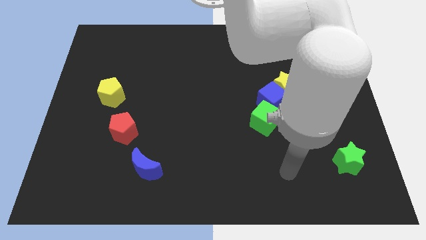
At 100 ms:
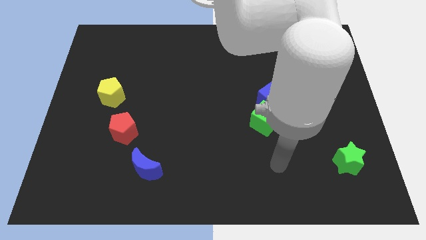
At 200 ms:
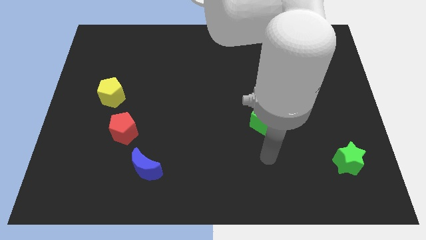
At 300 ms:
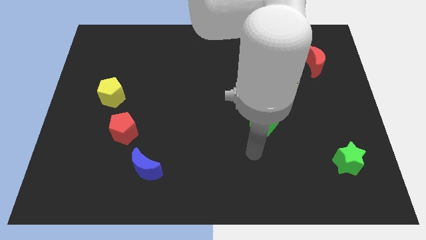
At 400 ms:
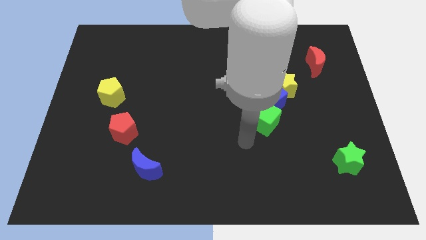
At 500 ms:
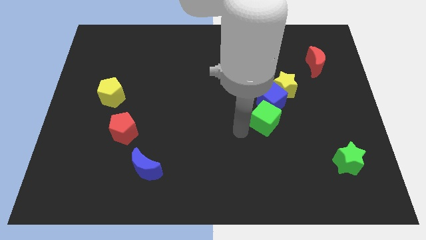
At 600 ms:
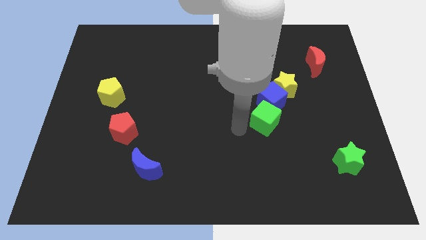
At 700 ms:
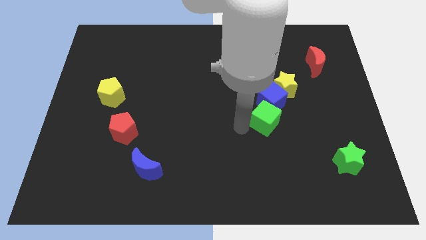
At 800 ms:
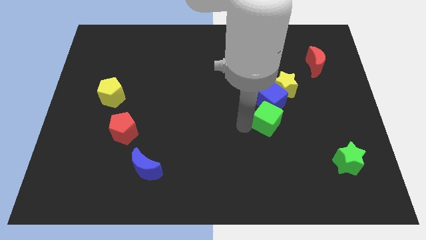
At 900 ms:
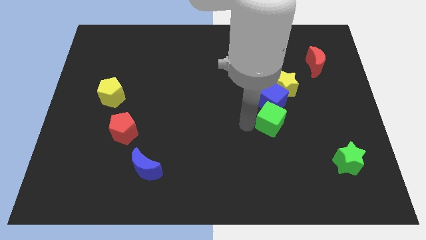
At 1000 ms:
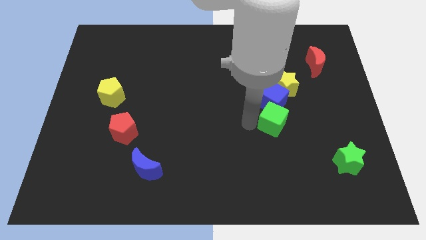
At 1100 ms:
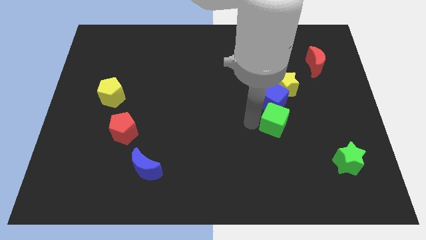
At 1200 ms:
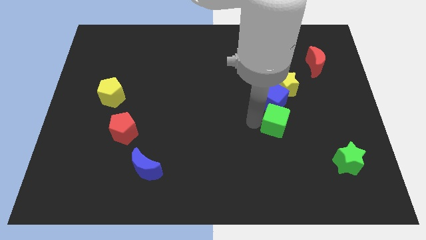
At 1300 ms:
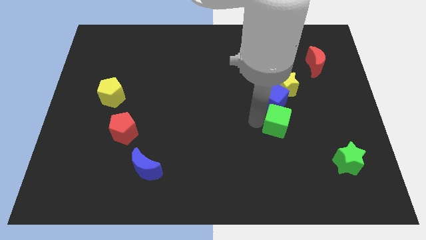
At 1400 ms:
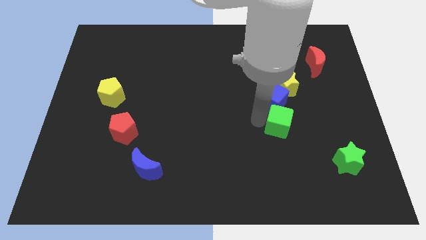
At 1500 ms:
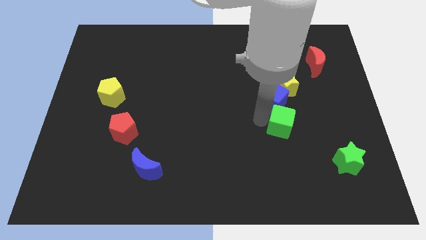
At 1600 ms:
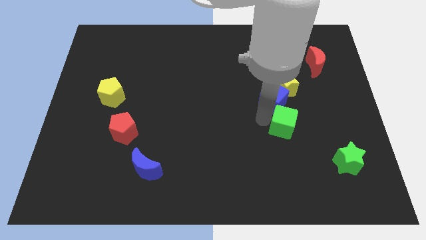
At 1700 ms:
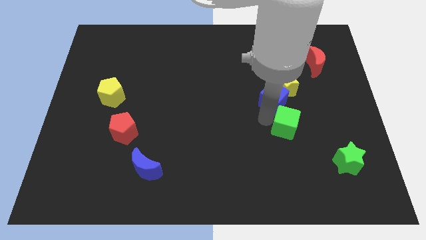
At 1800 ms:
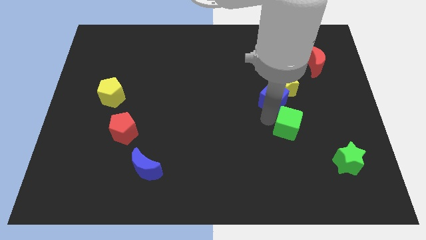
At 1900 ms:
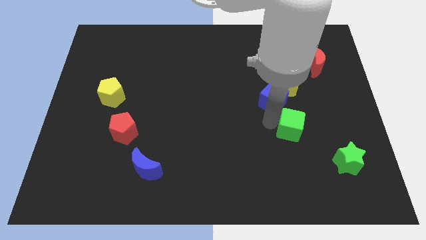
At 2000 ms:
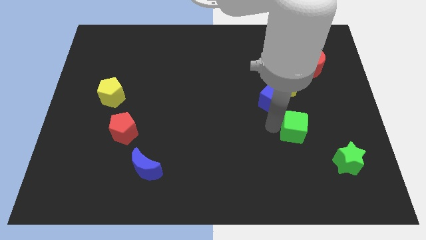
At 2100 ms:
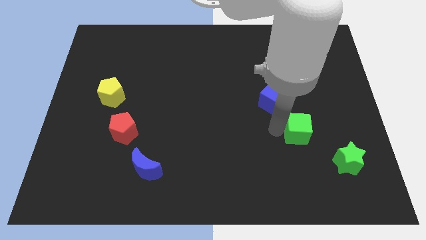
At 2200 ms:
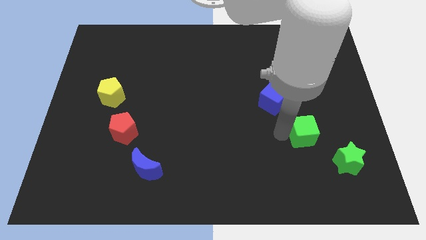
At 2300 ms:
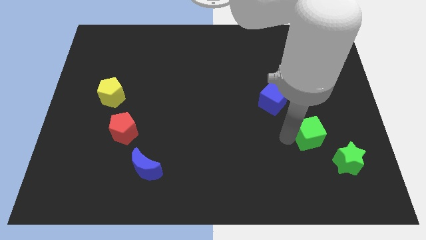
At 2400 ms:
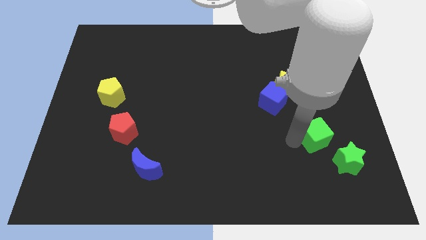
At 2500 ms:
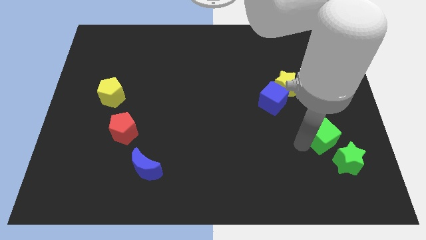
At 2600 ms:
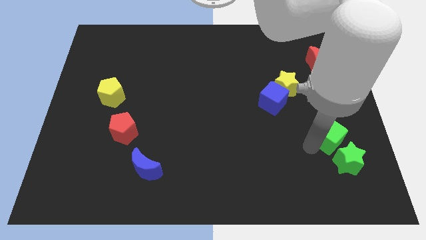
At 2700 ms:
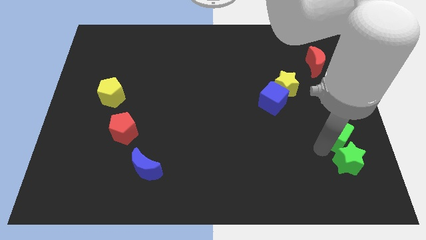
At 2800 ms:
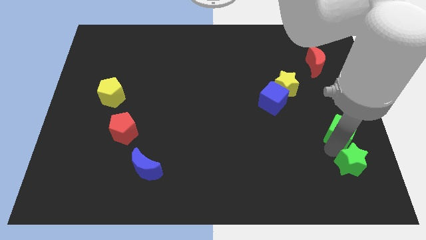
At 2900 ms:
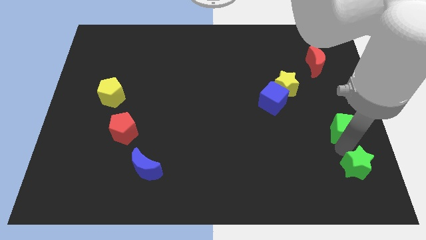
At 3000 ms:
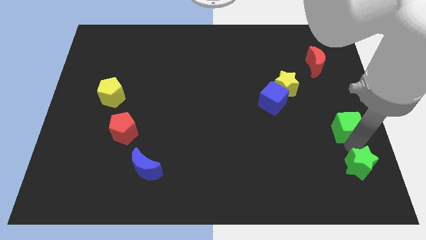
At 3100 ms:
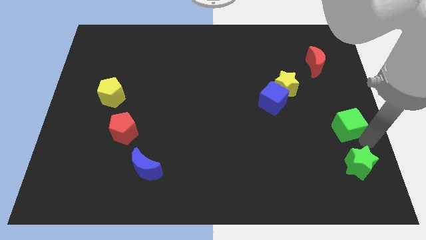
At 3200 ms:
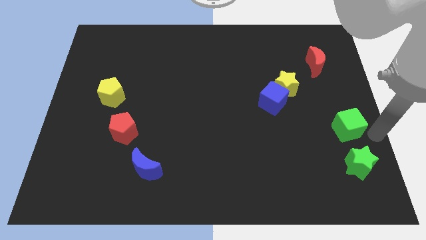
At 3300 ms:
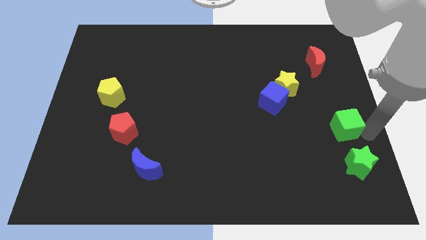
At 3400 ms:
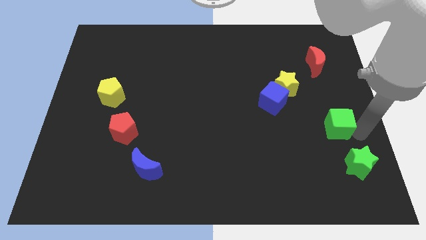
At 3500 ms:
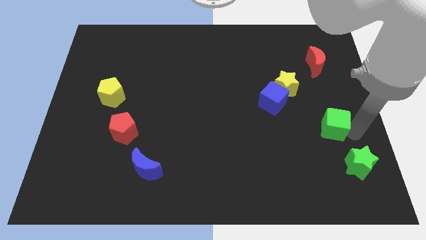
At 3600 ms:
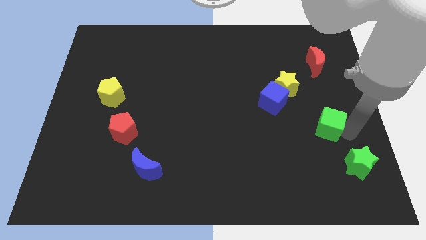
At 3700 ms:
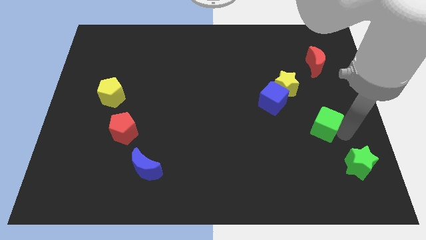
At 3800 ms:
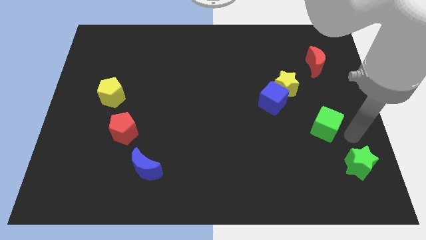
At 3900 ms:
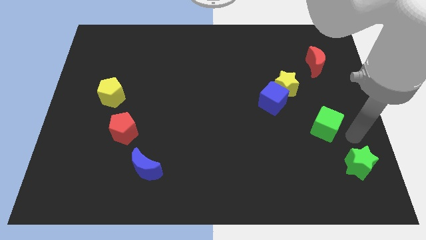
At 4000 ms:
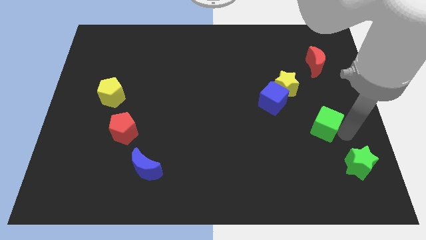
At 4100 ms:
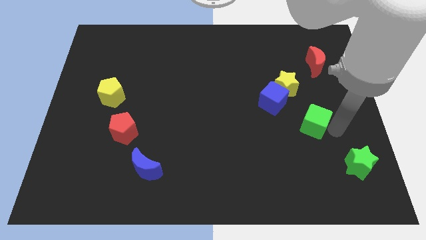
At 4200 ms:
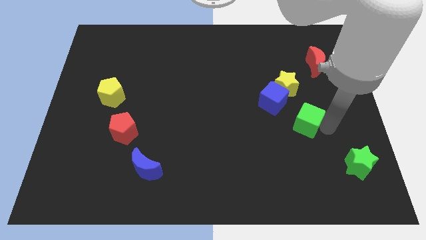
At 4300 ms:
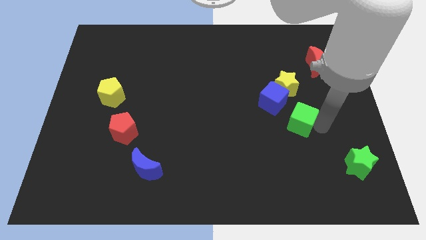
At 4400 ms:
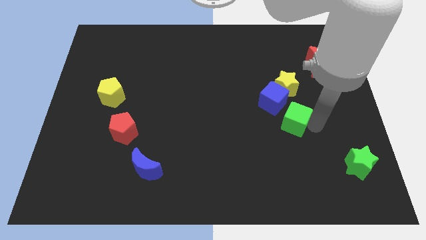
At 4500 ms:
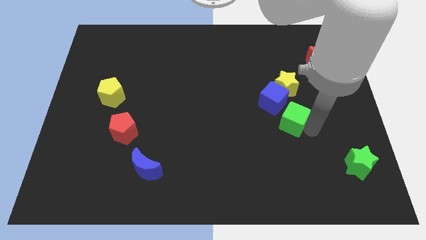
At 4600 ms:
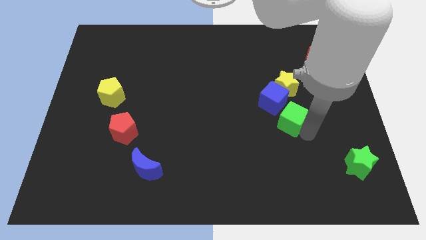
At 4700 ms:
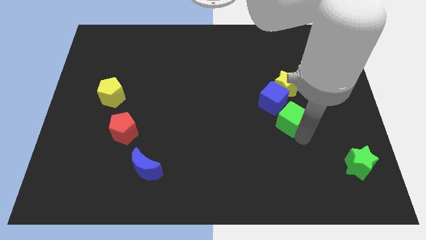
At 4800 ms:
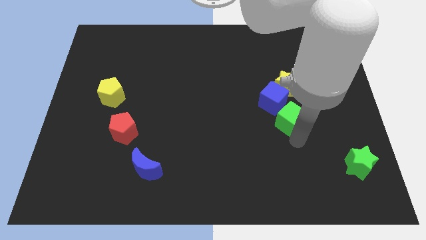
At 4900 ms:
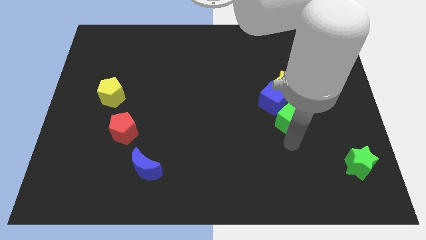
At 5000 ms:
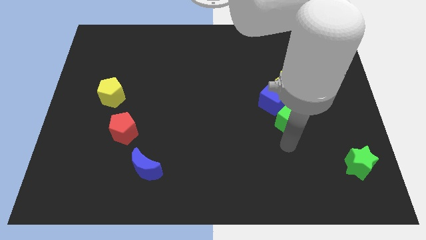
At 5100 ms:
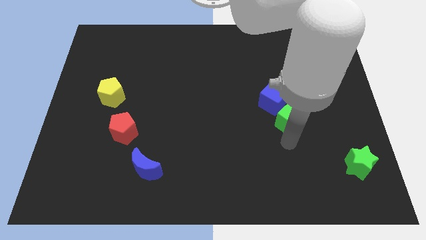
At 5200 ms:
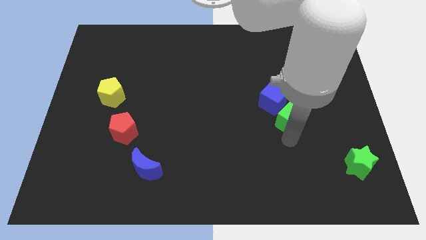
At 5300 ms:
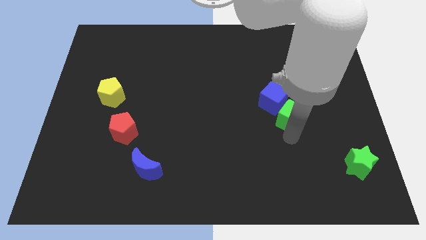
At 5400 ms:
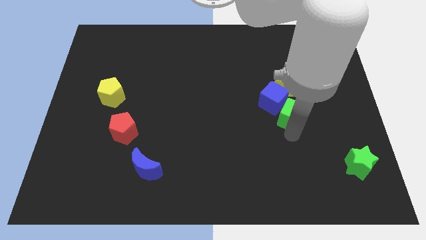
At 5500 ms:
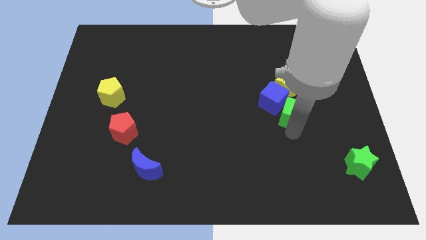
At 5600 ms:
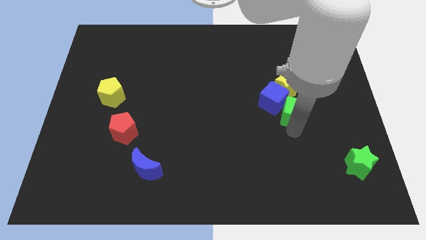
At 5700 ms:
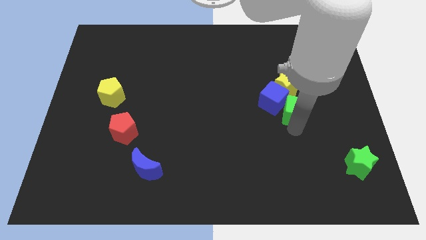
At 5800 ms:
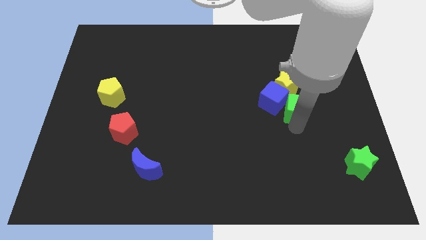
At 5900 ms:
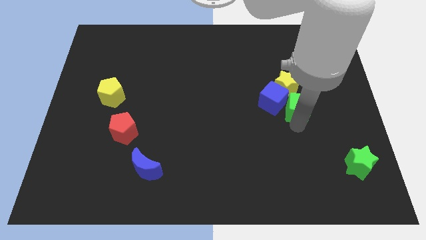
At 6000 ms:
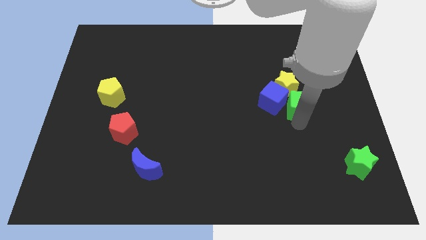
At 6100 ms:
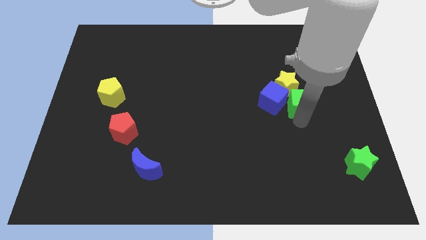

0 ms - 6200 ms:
slide the green cube next to the yellow star

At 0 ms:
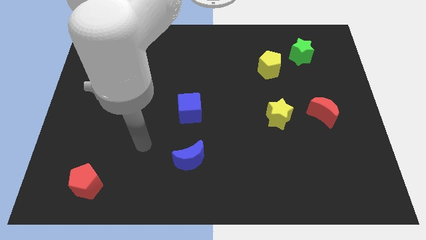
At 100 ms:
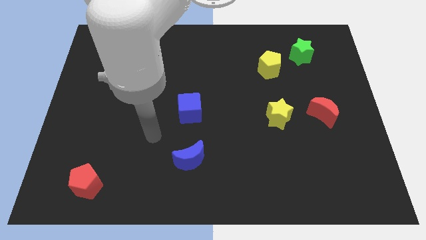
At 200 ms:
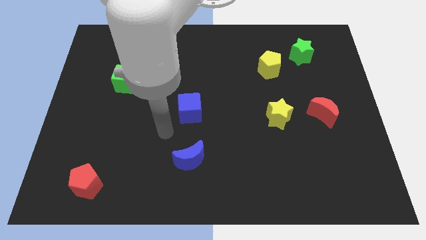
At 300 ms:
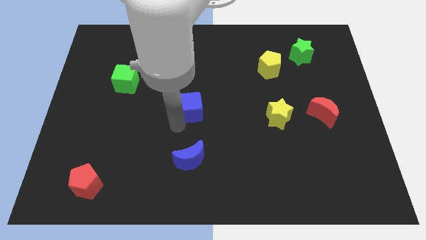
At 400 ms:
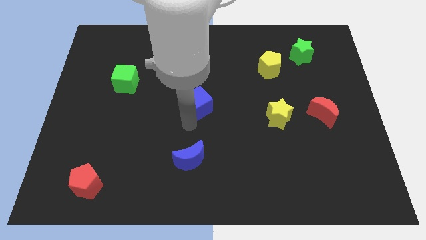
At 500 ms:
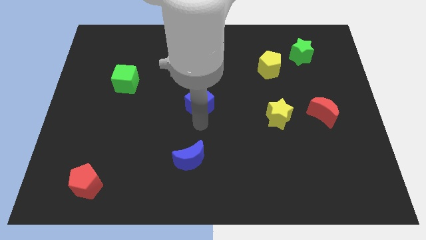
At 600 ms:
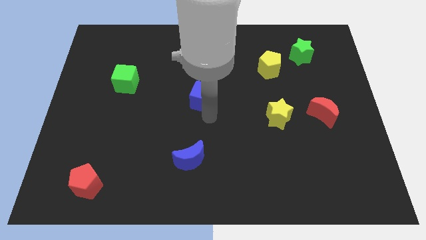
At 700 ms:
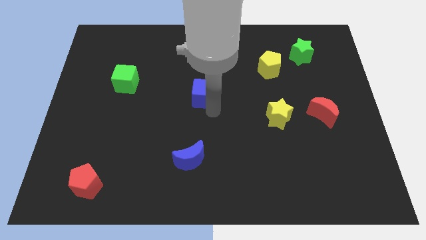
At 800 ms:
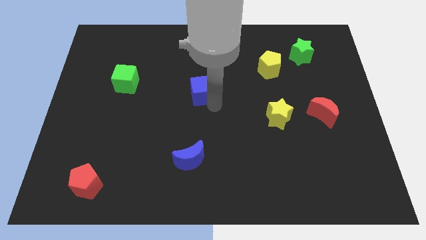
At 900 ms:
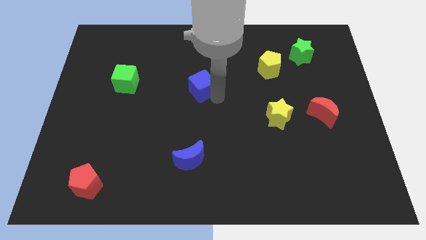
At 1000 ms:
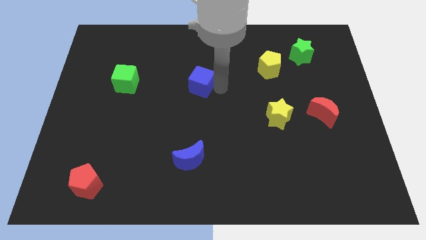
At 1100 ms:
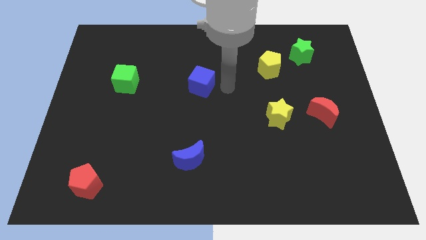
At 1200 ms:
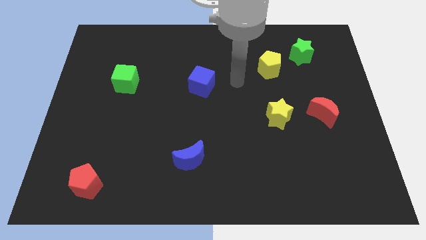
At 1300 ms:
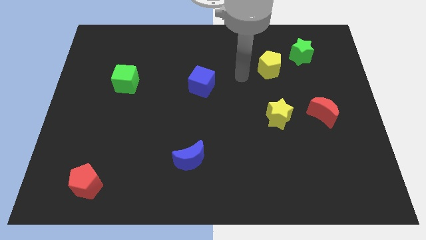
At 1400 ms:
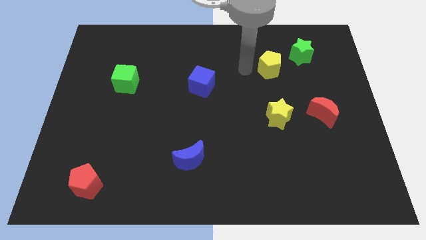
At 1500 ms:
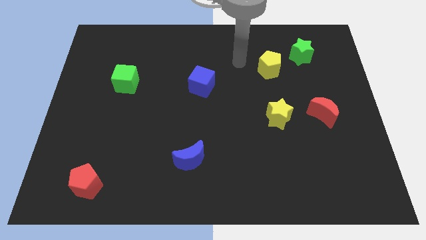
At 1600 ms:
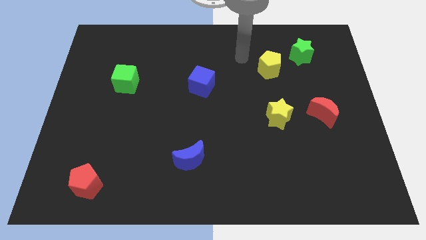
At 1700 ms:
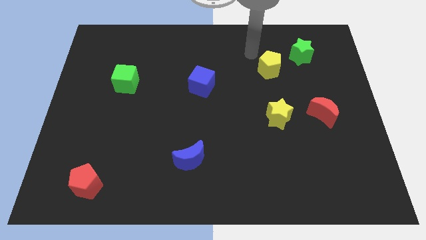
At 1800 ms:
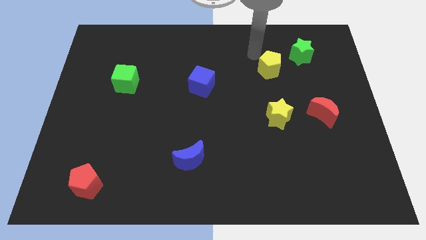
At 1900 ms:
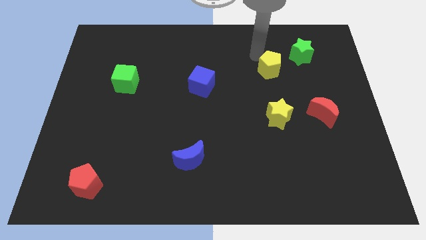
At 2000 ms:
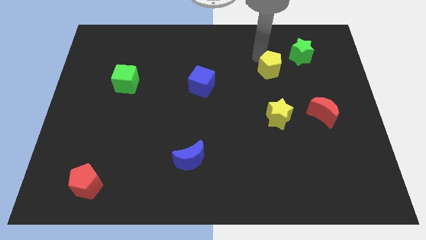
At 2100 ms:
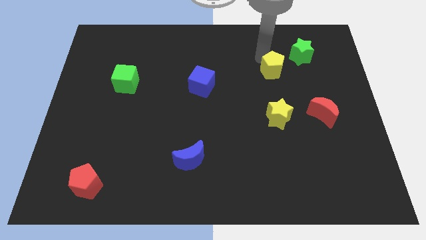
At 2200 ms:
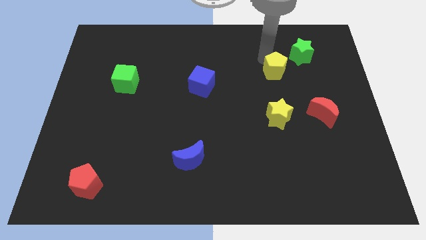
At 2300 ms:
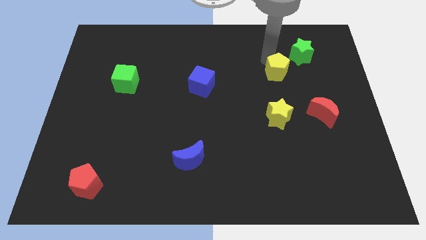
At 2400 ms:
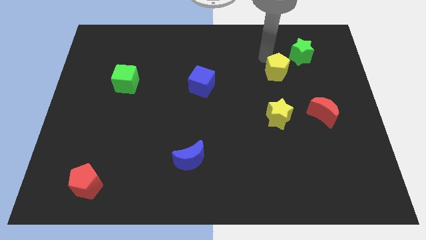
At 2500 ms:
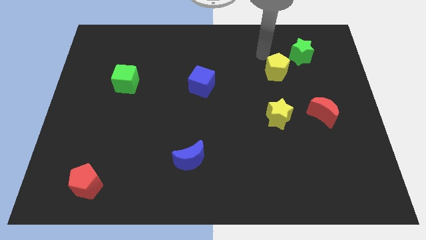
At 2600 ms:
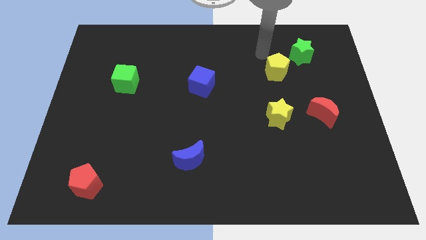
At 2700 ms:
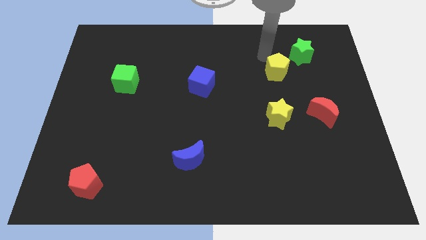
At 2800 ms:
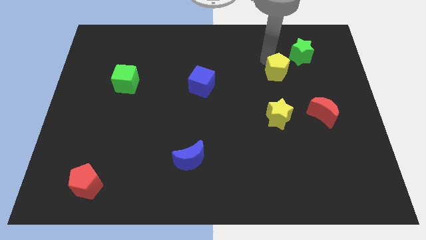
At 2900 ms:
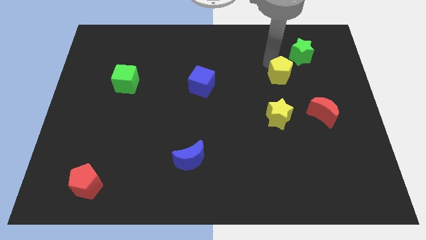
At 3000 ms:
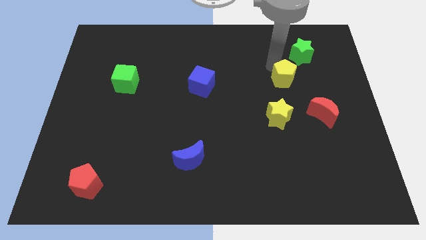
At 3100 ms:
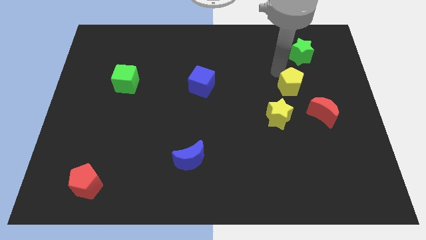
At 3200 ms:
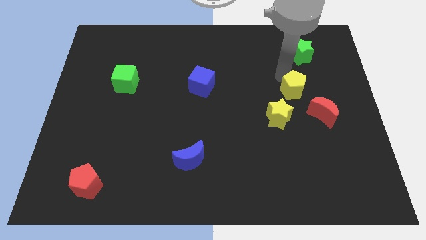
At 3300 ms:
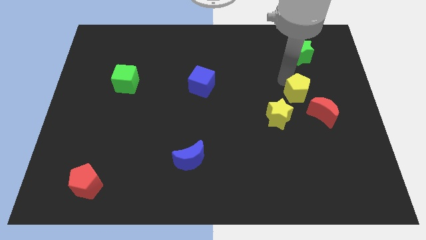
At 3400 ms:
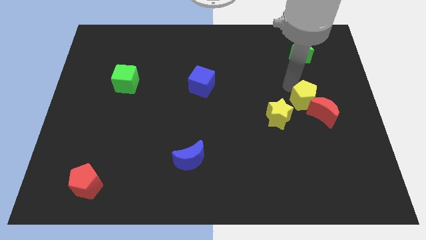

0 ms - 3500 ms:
put the yellow pentagon close to the red moon
